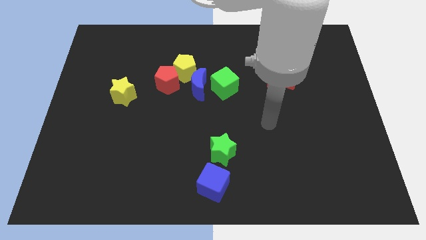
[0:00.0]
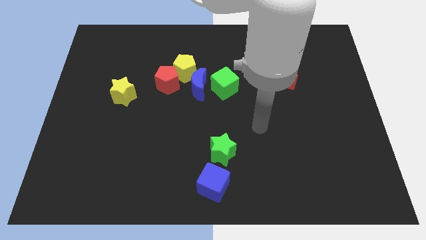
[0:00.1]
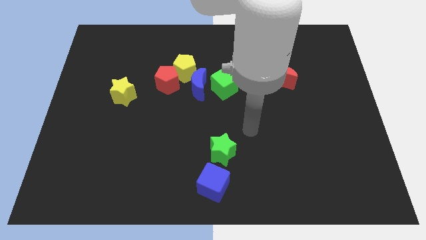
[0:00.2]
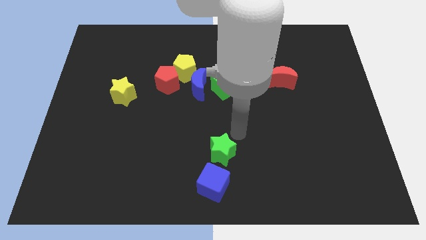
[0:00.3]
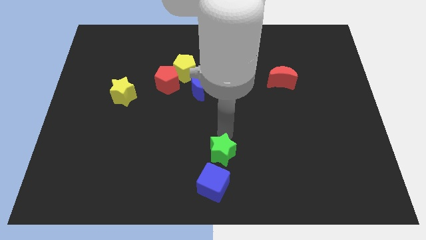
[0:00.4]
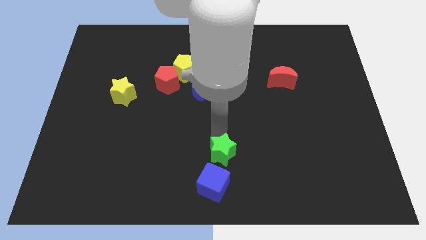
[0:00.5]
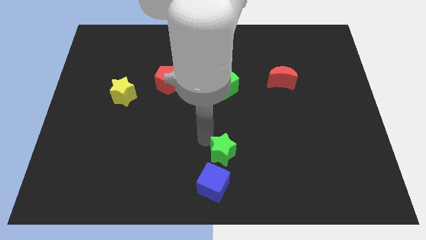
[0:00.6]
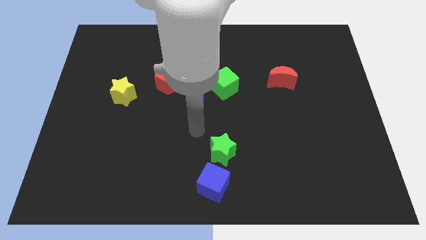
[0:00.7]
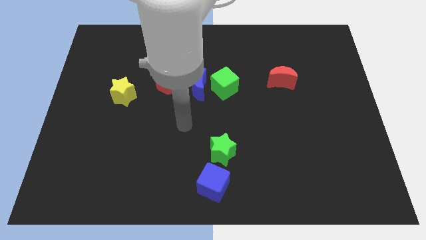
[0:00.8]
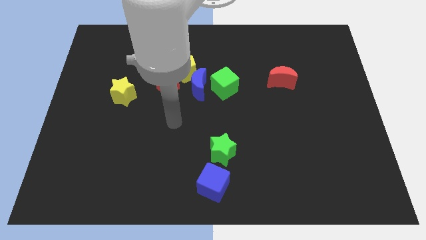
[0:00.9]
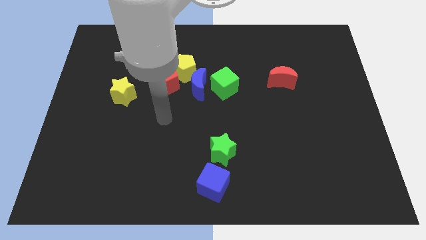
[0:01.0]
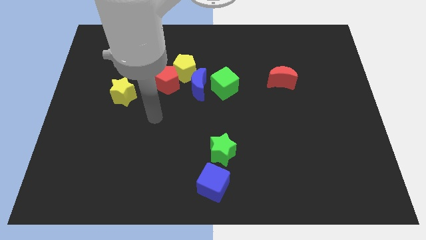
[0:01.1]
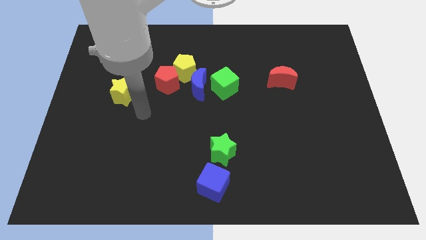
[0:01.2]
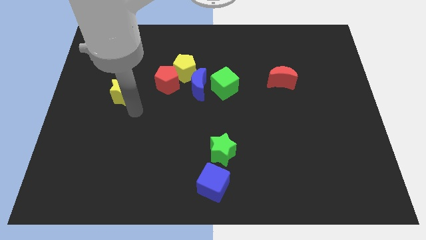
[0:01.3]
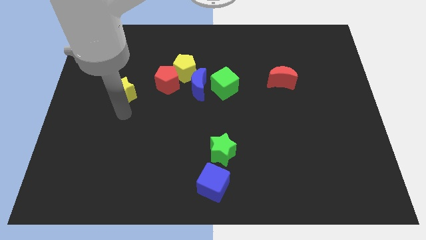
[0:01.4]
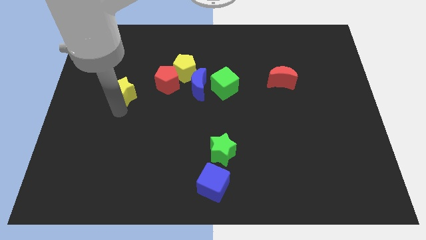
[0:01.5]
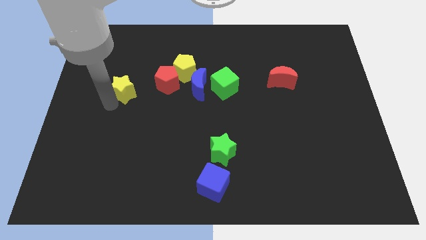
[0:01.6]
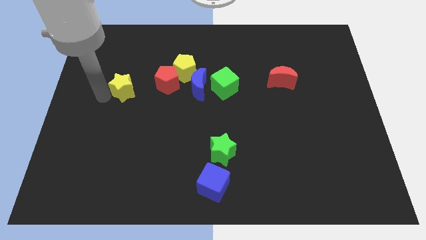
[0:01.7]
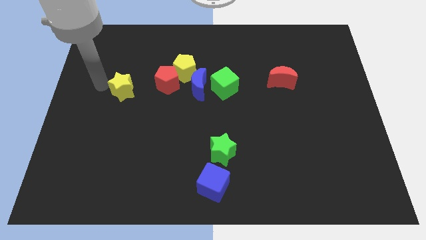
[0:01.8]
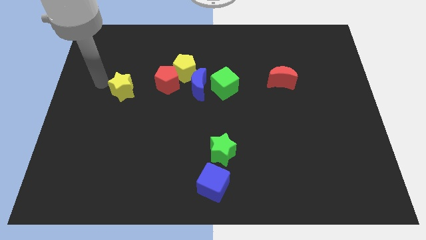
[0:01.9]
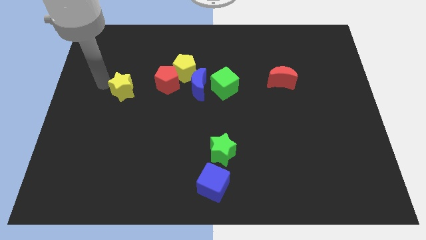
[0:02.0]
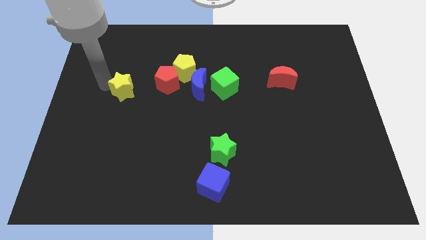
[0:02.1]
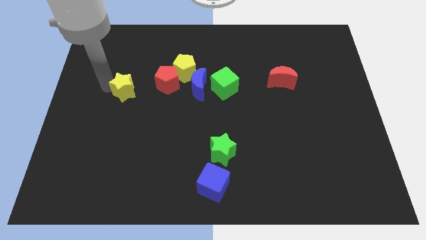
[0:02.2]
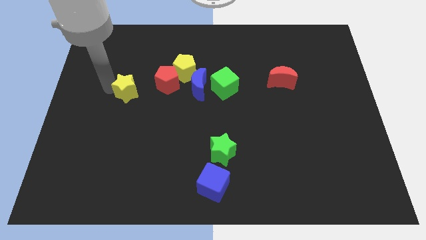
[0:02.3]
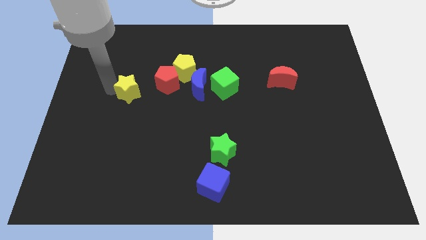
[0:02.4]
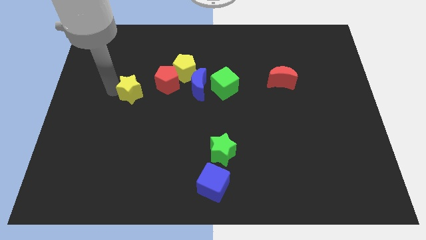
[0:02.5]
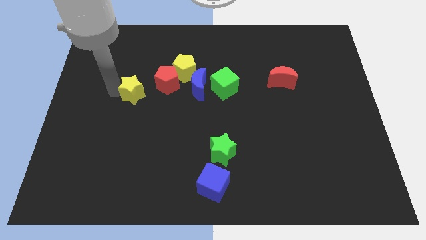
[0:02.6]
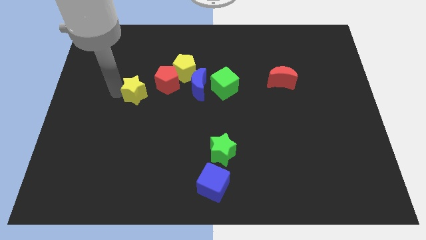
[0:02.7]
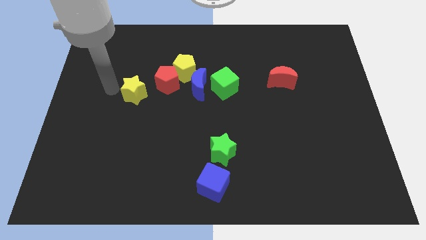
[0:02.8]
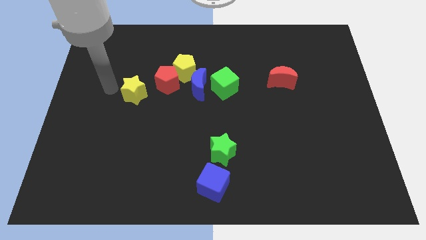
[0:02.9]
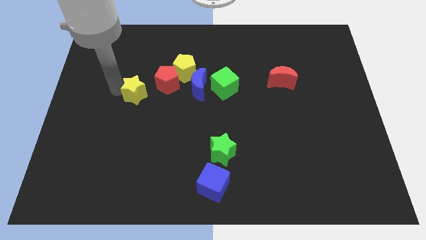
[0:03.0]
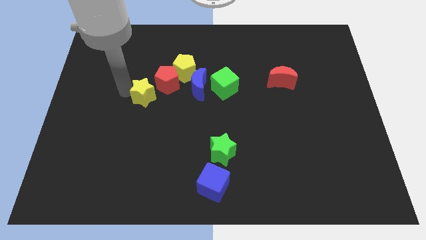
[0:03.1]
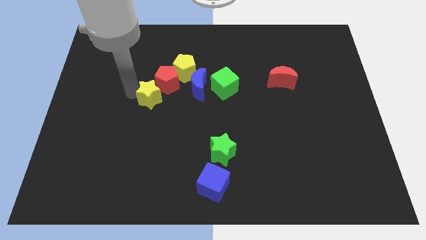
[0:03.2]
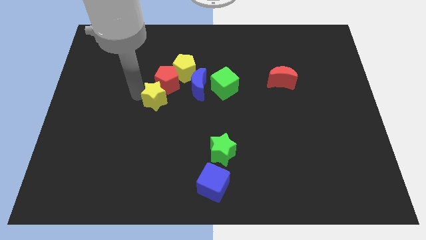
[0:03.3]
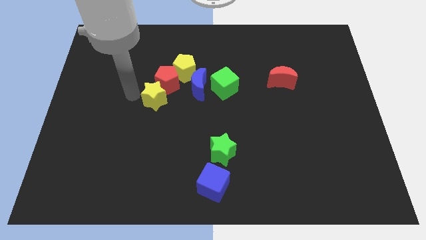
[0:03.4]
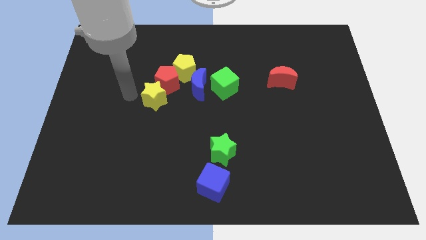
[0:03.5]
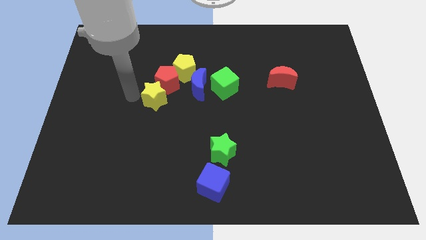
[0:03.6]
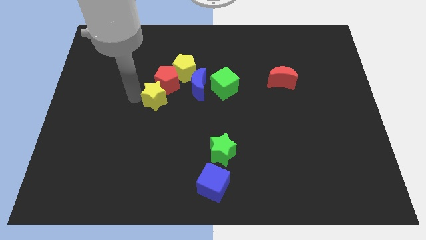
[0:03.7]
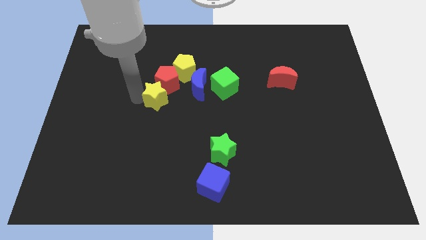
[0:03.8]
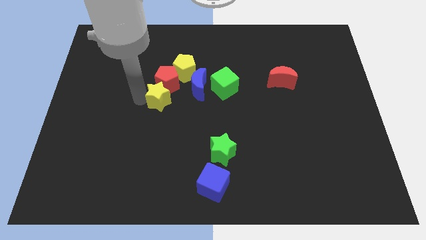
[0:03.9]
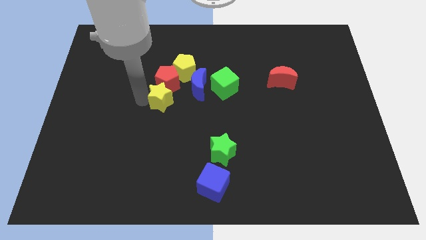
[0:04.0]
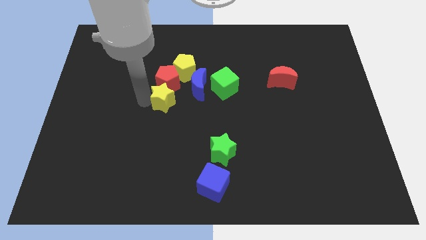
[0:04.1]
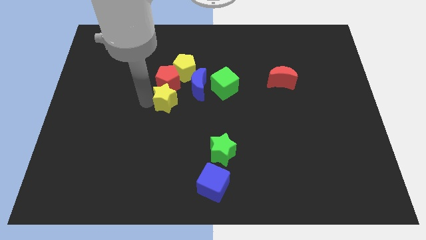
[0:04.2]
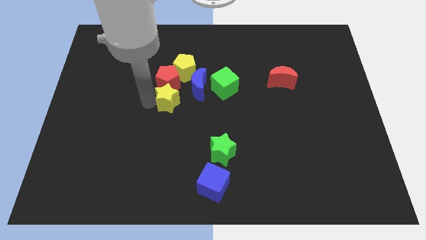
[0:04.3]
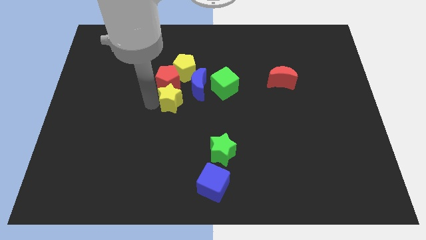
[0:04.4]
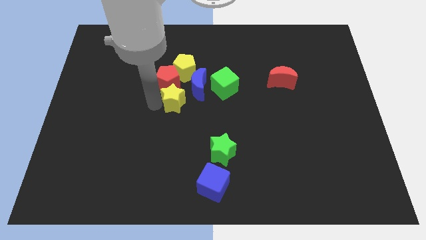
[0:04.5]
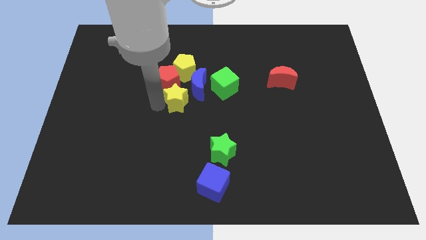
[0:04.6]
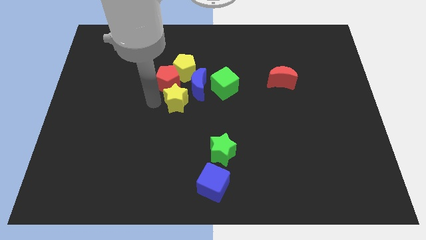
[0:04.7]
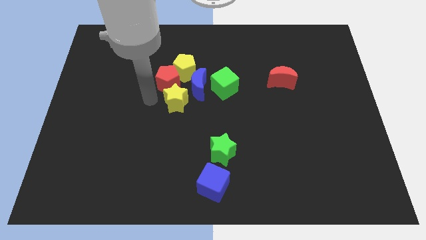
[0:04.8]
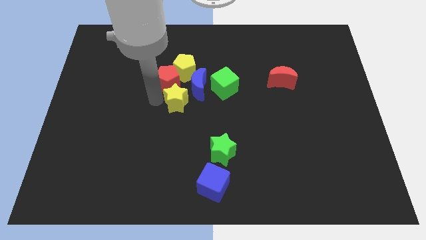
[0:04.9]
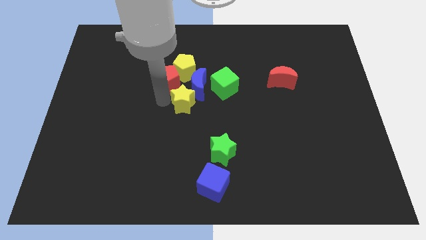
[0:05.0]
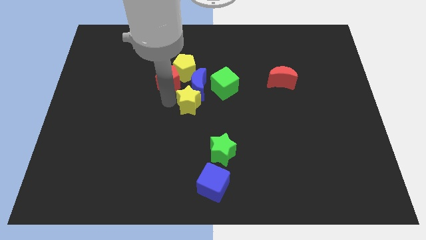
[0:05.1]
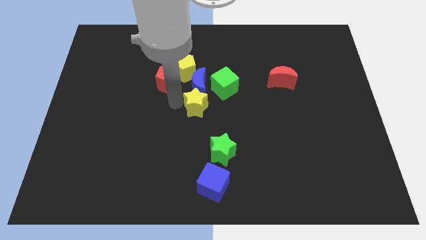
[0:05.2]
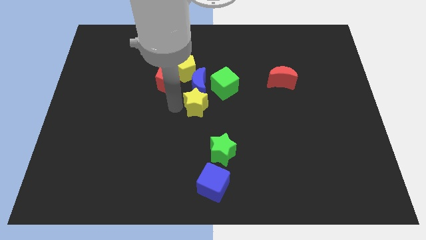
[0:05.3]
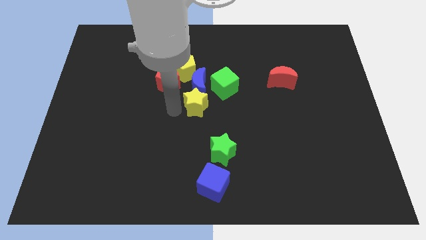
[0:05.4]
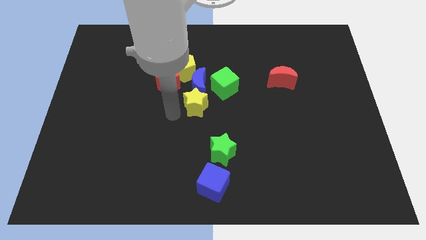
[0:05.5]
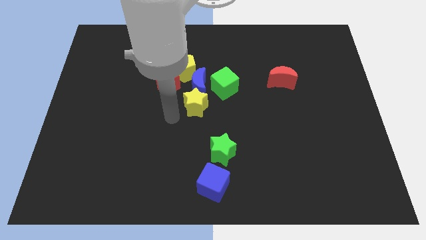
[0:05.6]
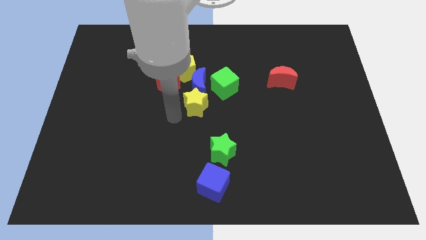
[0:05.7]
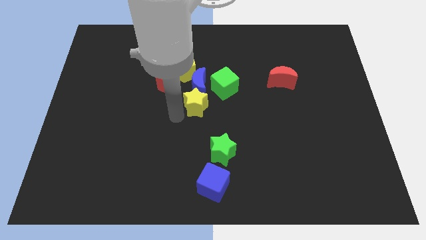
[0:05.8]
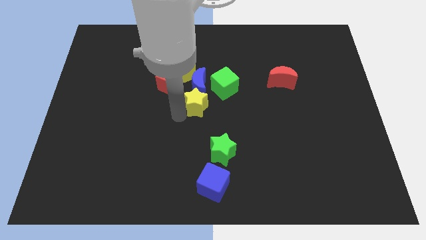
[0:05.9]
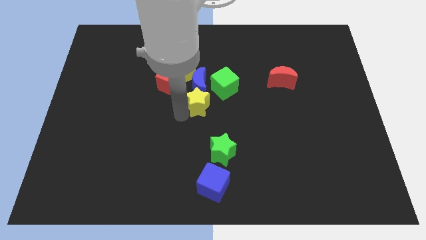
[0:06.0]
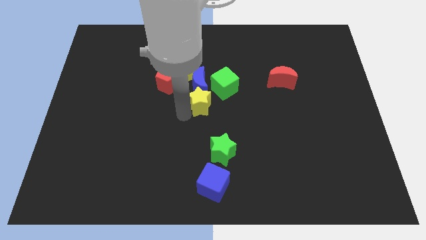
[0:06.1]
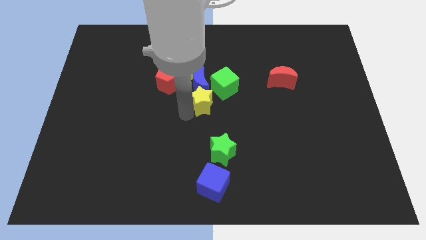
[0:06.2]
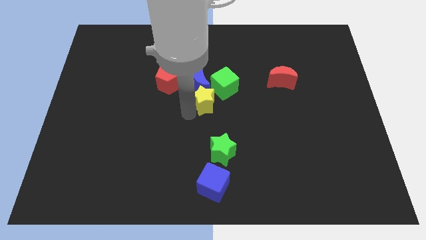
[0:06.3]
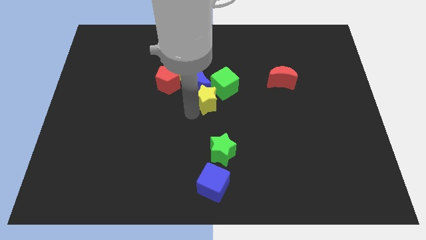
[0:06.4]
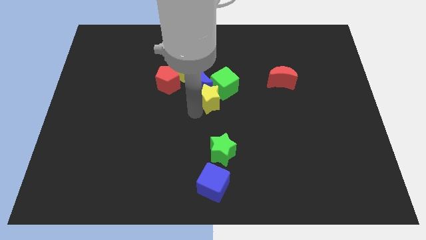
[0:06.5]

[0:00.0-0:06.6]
put the yellow star to the green cube

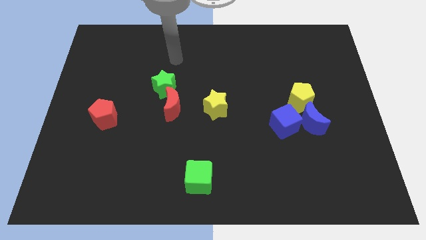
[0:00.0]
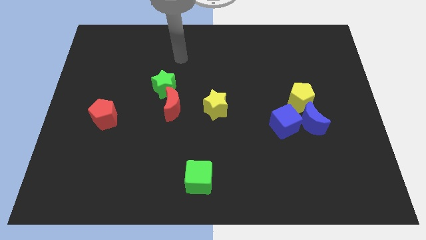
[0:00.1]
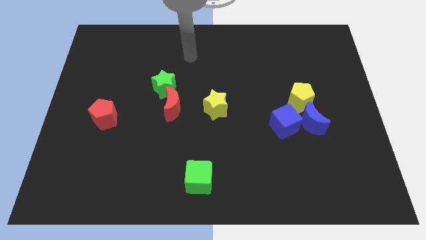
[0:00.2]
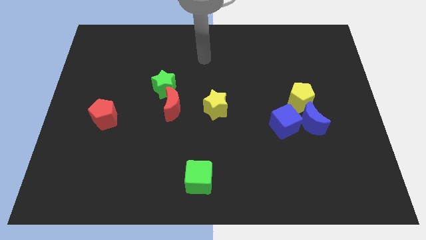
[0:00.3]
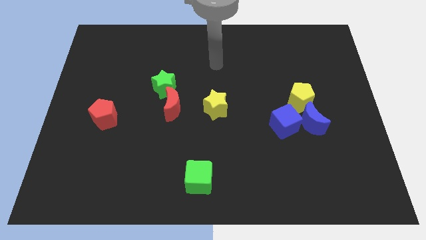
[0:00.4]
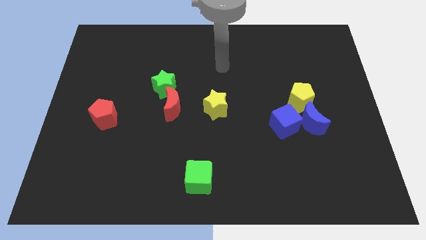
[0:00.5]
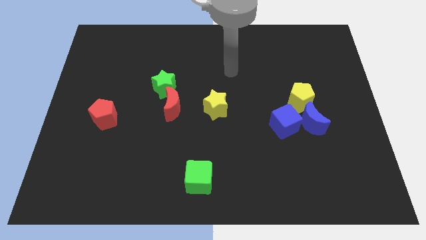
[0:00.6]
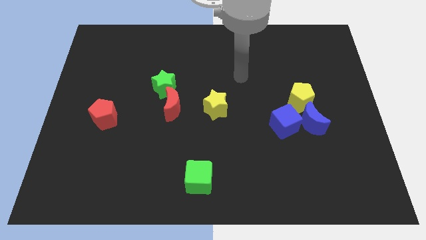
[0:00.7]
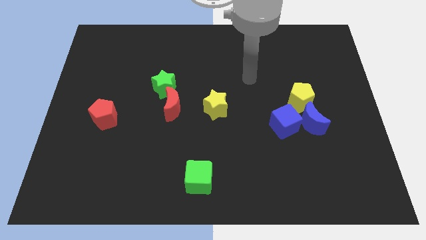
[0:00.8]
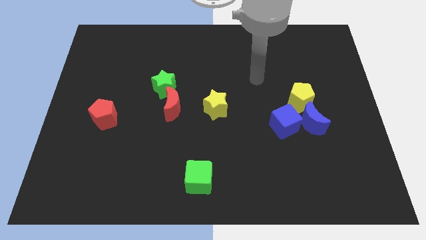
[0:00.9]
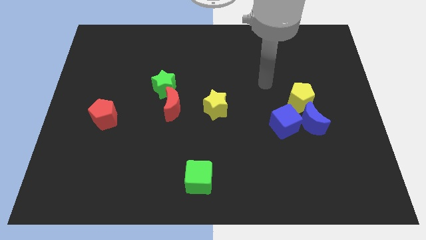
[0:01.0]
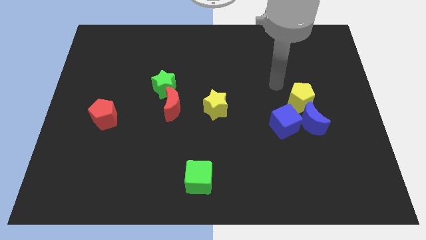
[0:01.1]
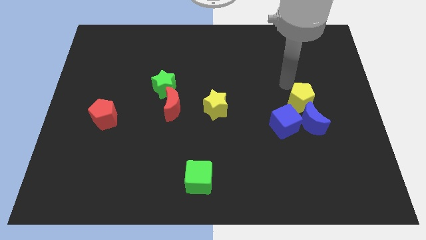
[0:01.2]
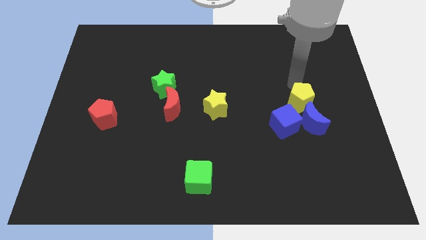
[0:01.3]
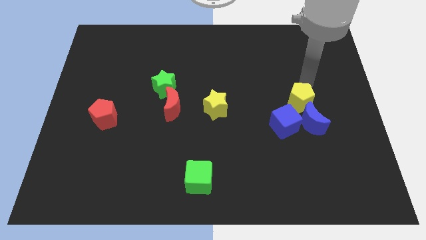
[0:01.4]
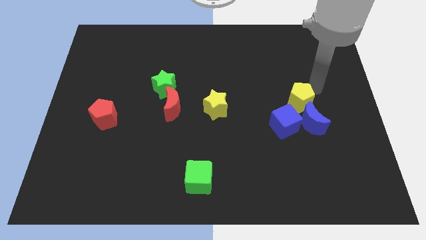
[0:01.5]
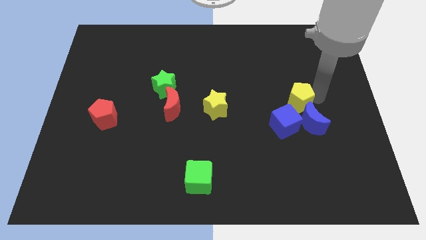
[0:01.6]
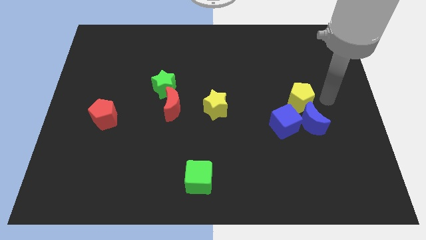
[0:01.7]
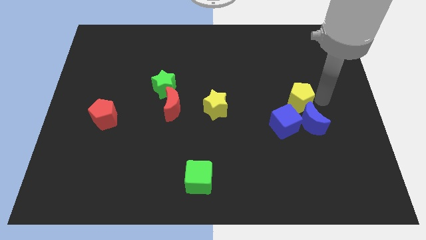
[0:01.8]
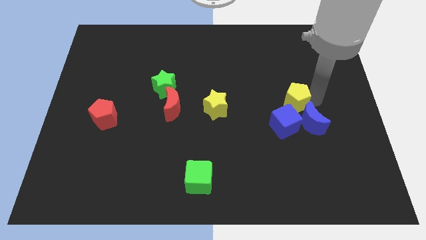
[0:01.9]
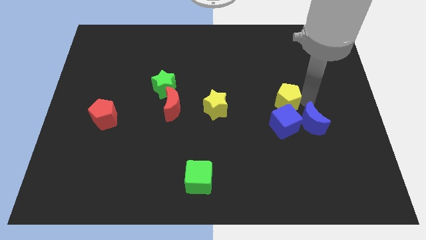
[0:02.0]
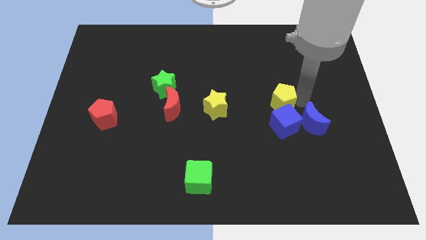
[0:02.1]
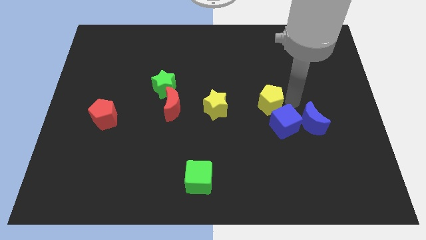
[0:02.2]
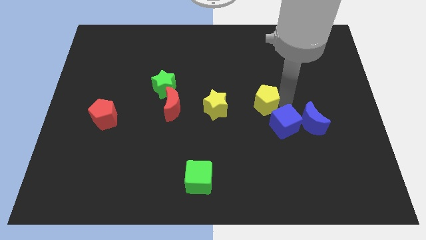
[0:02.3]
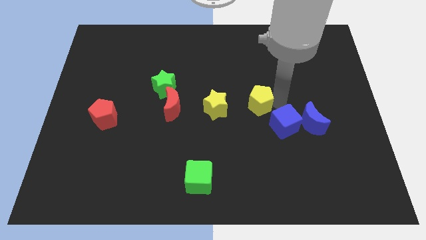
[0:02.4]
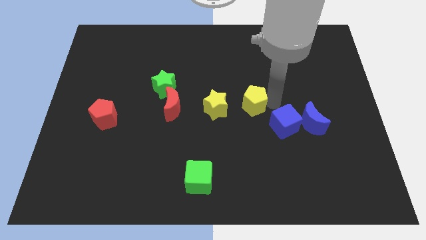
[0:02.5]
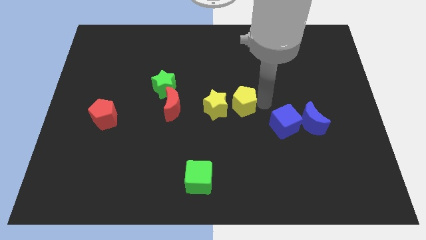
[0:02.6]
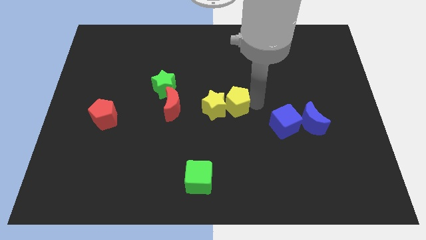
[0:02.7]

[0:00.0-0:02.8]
push the yellow pentagon next to the yellow star
